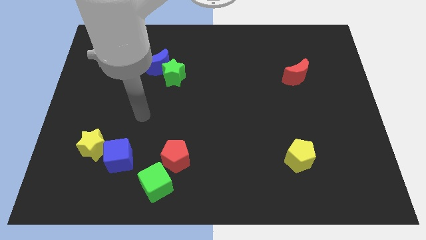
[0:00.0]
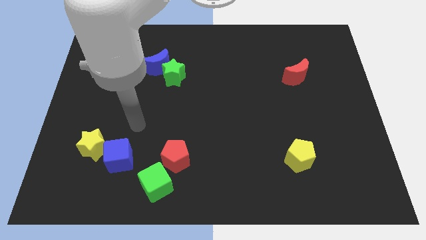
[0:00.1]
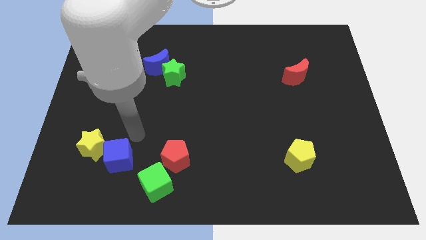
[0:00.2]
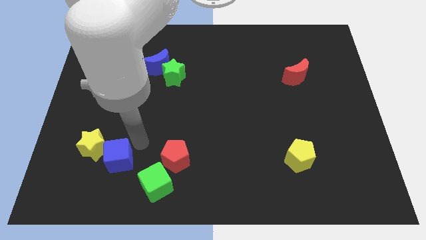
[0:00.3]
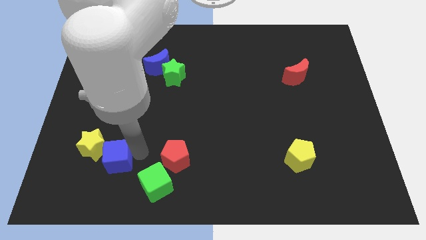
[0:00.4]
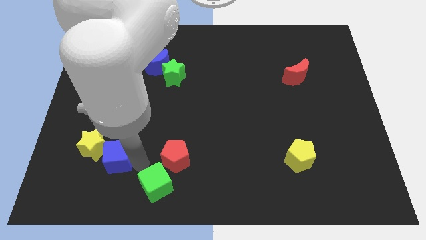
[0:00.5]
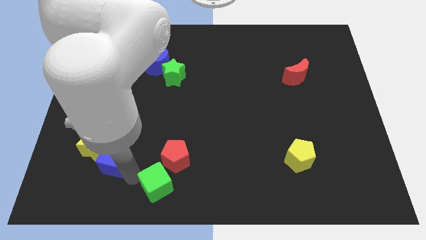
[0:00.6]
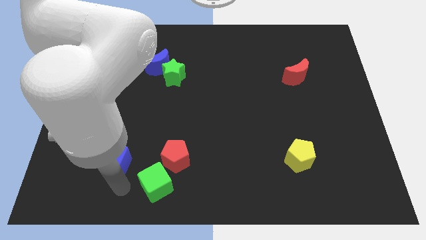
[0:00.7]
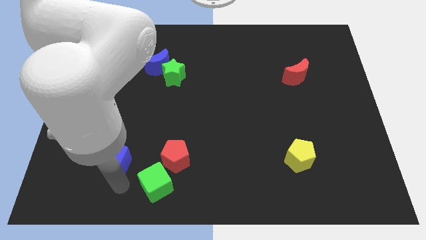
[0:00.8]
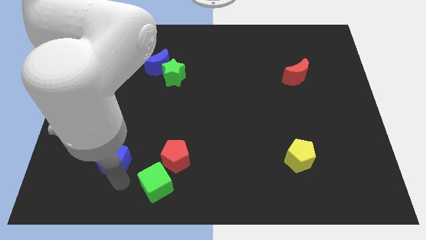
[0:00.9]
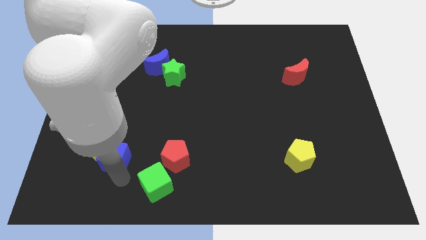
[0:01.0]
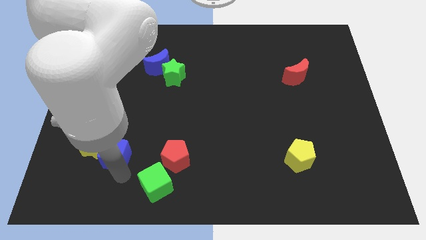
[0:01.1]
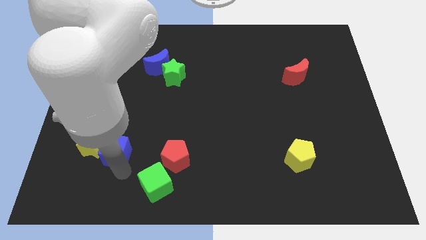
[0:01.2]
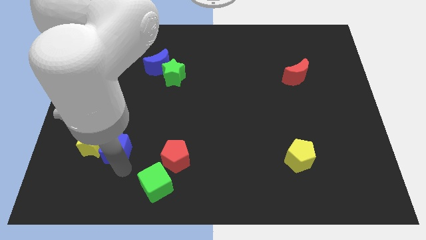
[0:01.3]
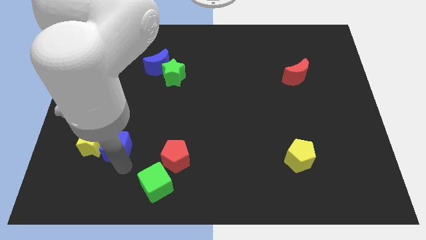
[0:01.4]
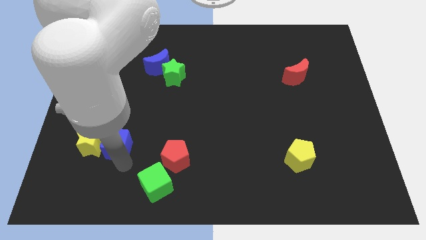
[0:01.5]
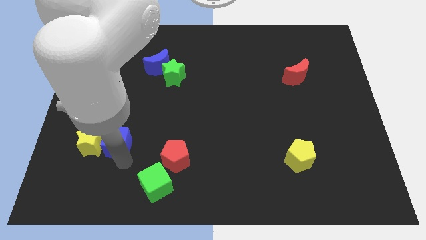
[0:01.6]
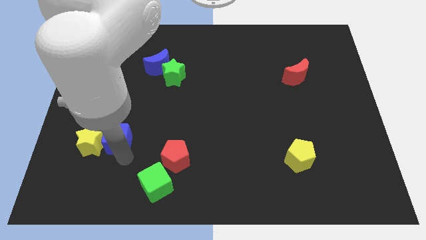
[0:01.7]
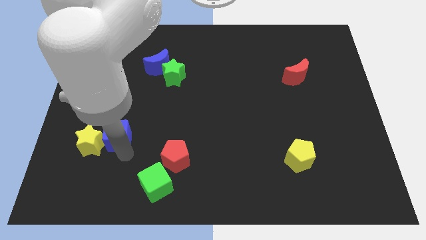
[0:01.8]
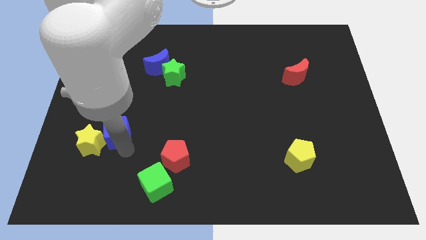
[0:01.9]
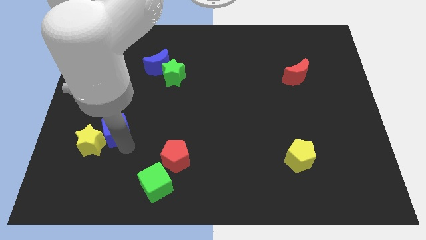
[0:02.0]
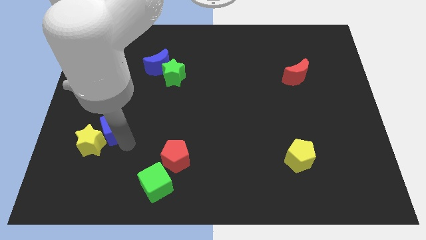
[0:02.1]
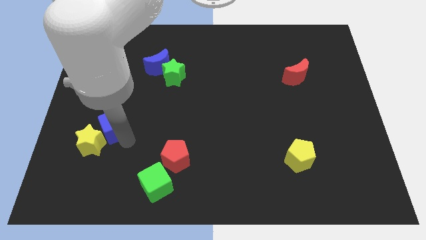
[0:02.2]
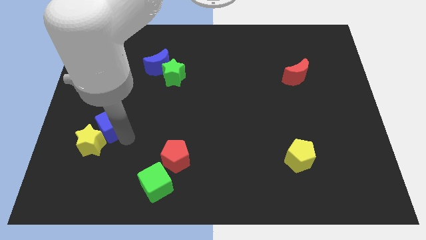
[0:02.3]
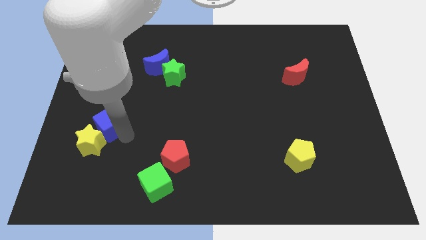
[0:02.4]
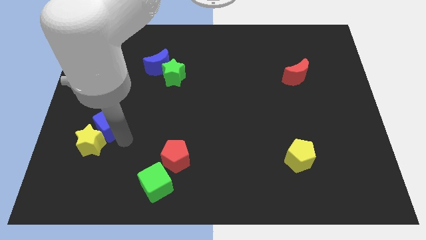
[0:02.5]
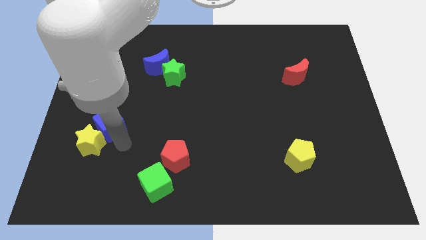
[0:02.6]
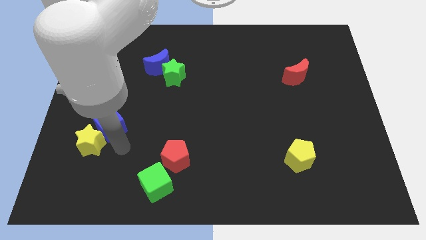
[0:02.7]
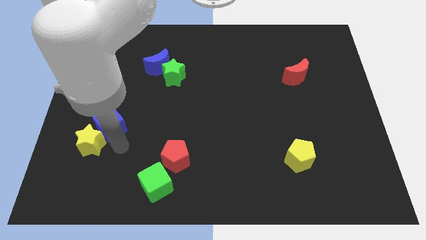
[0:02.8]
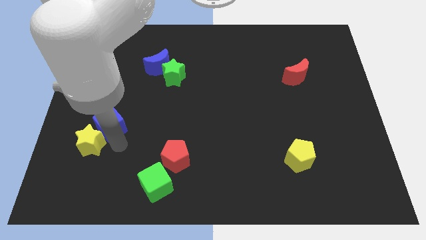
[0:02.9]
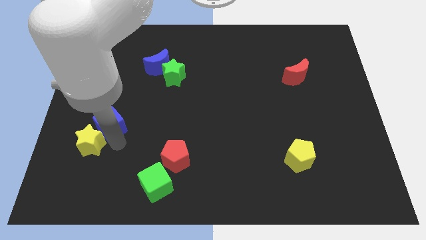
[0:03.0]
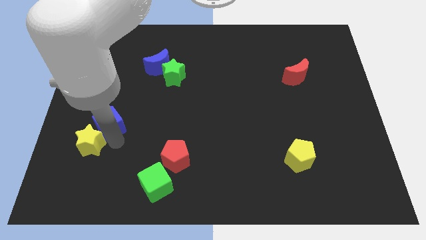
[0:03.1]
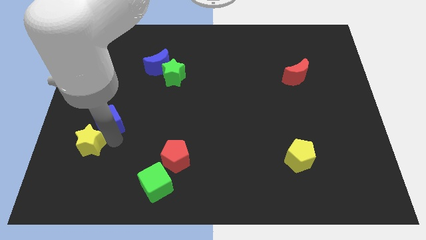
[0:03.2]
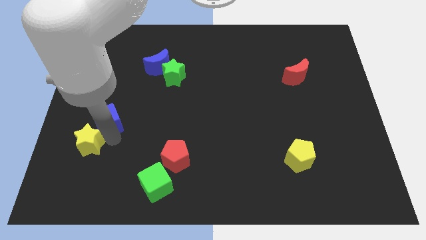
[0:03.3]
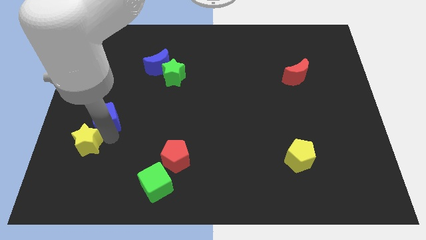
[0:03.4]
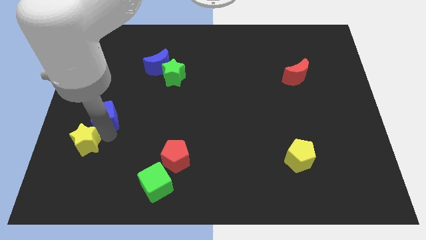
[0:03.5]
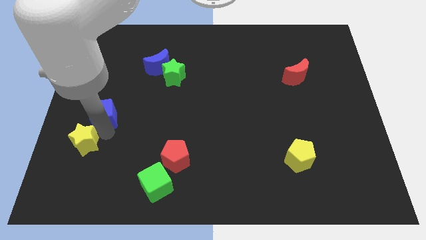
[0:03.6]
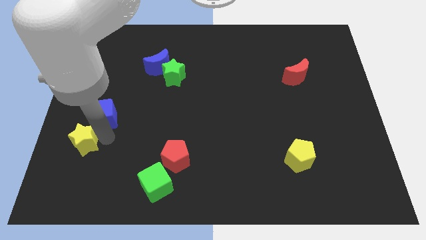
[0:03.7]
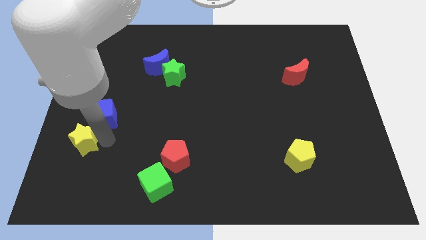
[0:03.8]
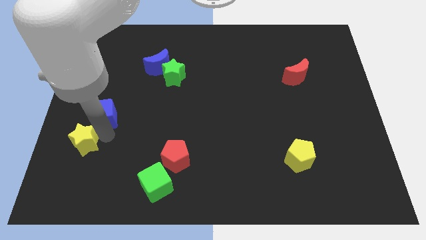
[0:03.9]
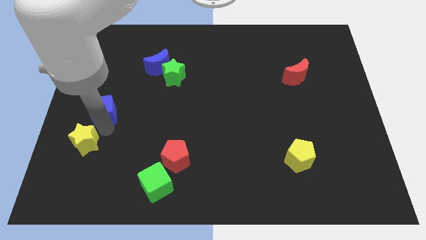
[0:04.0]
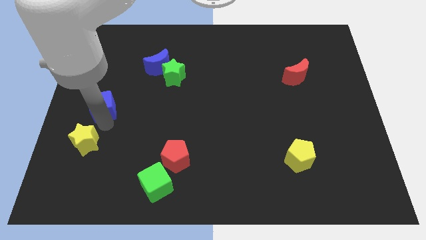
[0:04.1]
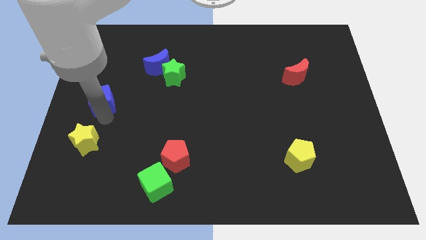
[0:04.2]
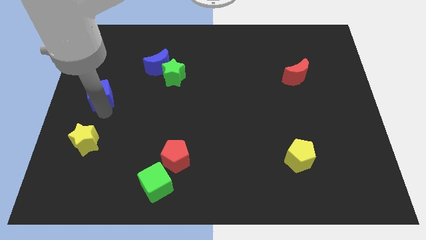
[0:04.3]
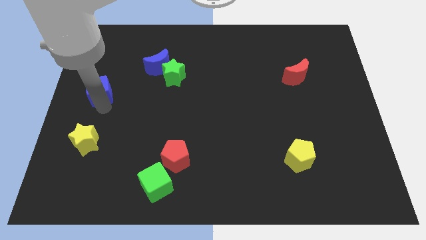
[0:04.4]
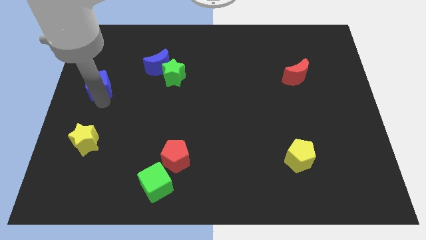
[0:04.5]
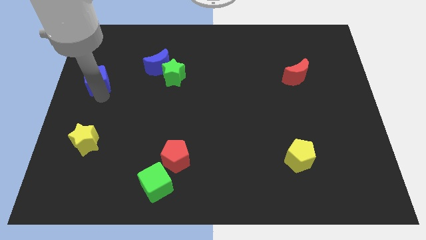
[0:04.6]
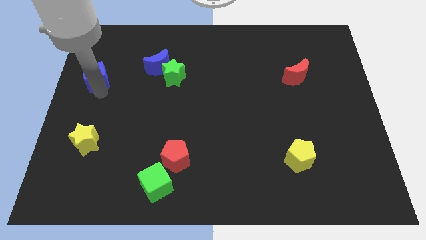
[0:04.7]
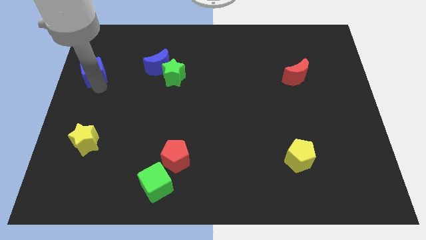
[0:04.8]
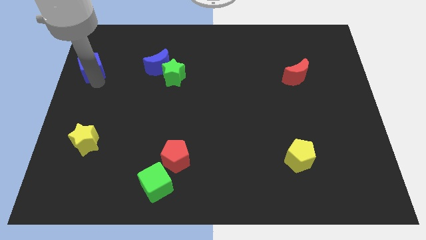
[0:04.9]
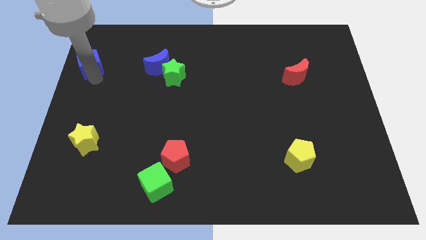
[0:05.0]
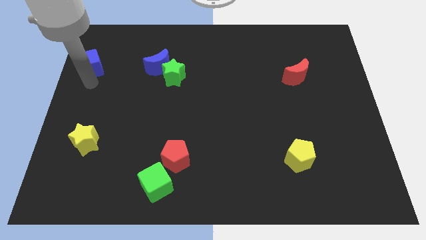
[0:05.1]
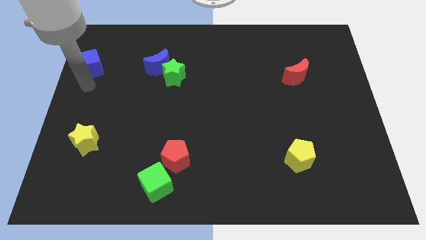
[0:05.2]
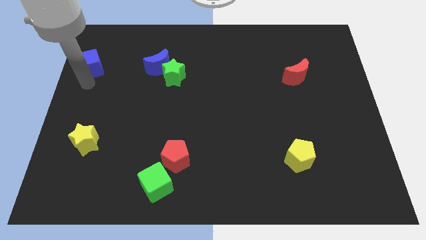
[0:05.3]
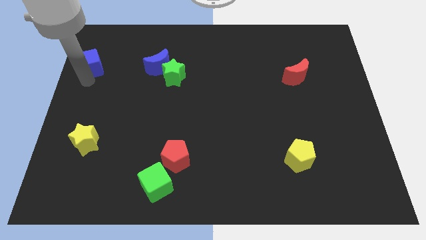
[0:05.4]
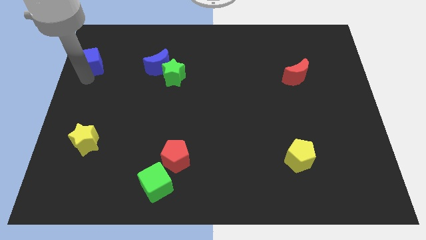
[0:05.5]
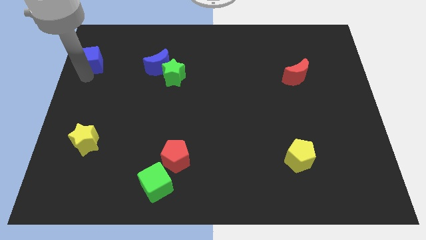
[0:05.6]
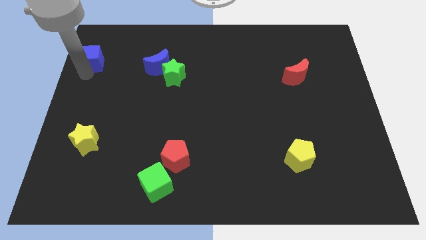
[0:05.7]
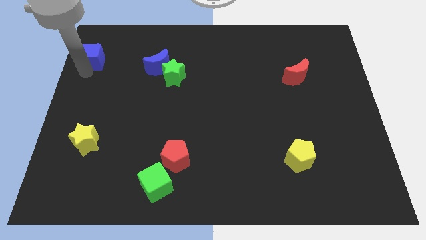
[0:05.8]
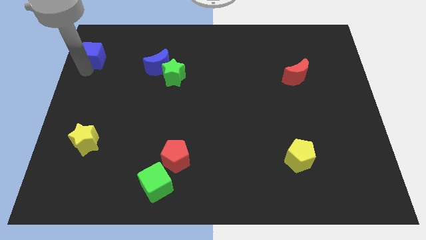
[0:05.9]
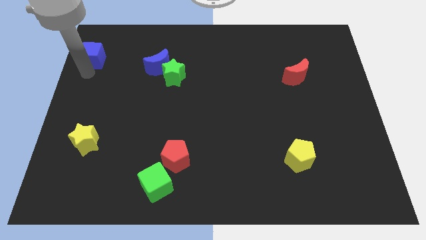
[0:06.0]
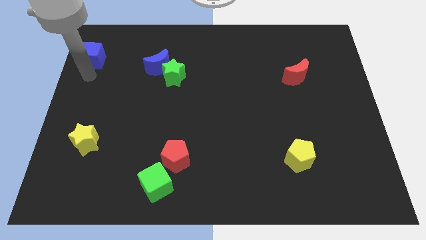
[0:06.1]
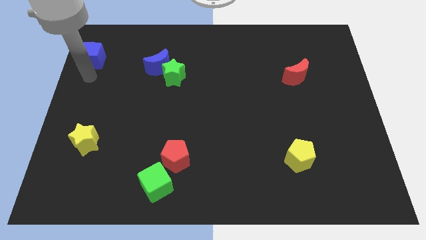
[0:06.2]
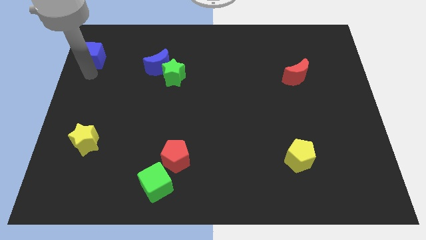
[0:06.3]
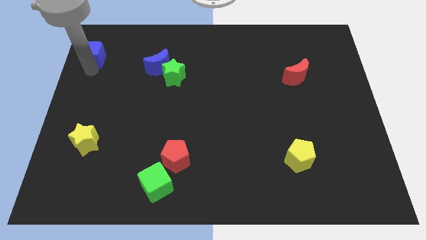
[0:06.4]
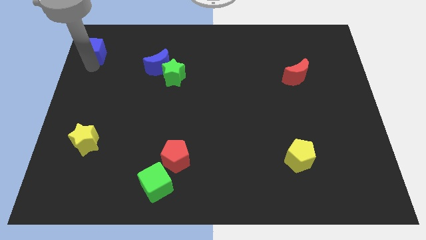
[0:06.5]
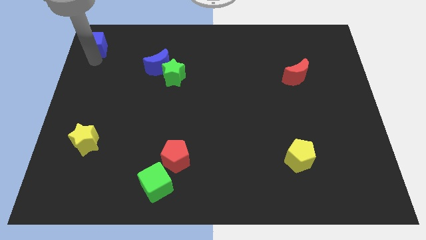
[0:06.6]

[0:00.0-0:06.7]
push the blue cube to the upper left corner
